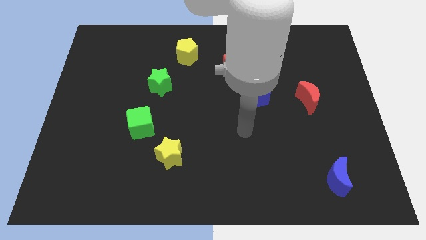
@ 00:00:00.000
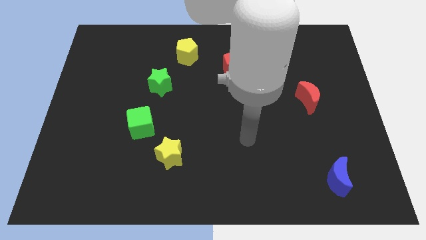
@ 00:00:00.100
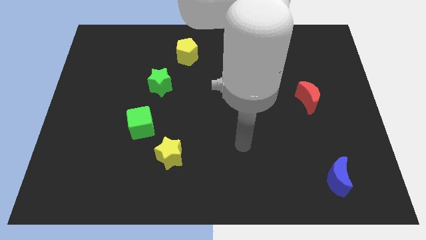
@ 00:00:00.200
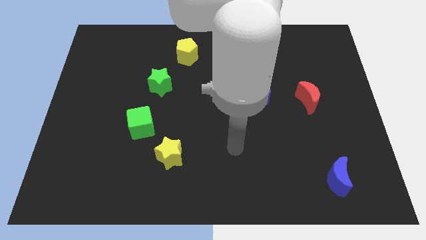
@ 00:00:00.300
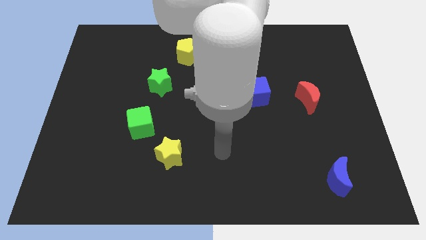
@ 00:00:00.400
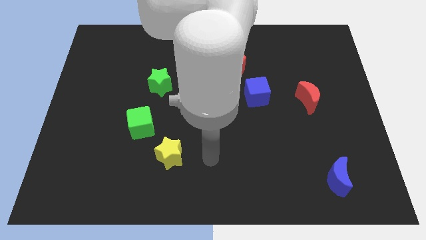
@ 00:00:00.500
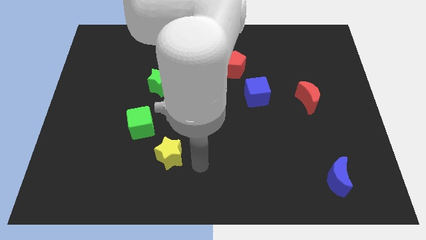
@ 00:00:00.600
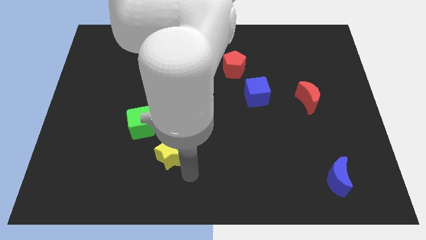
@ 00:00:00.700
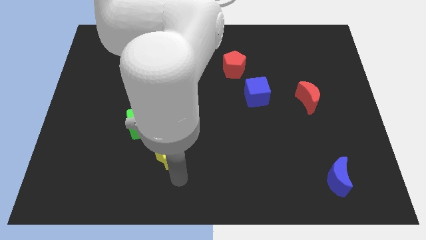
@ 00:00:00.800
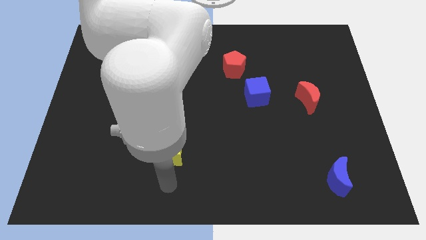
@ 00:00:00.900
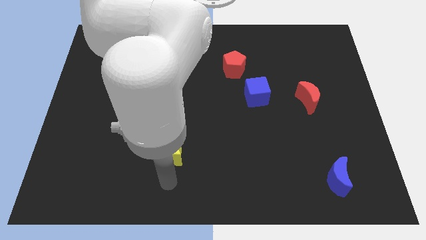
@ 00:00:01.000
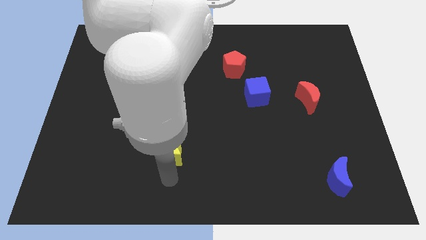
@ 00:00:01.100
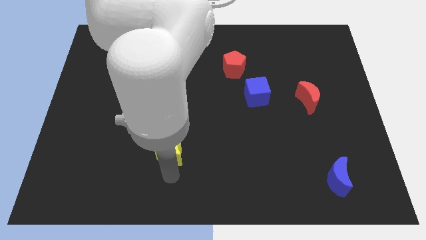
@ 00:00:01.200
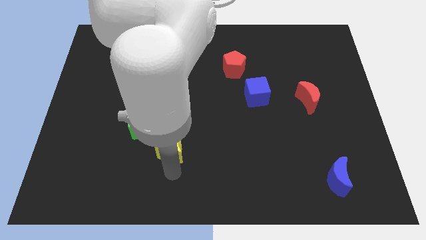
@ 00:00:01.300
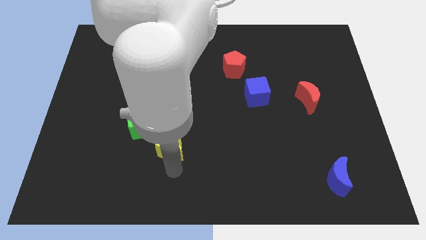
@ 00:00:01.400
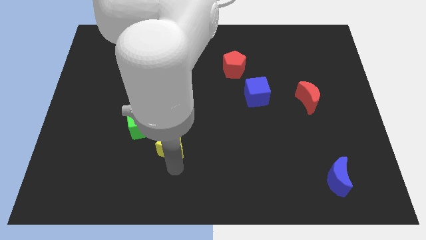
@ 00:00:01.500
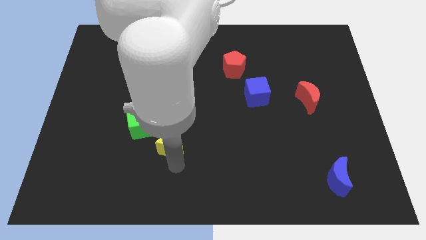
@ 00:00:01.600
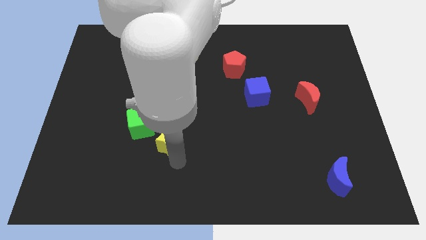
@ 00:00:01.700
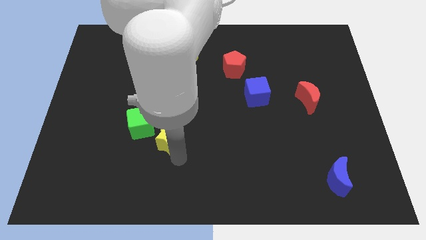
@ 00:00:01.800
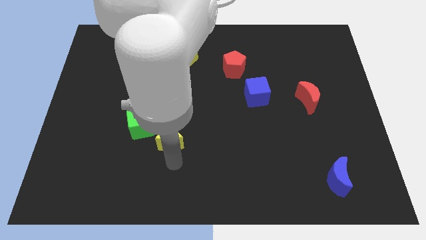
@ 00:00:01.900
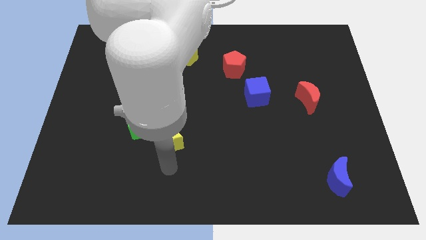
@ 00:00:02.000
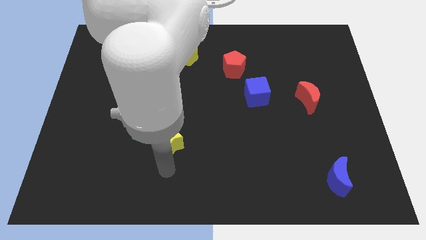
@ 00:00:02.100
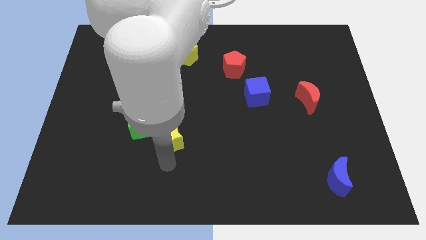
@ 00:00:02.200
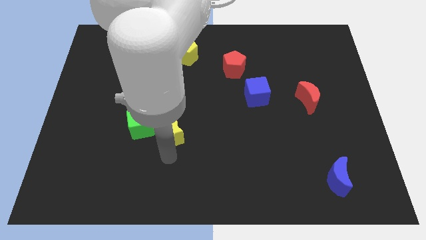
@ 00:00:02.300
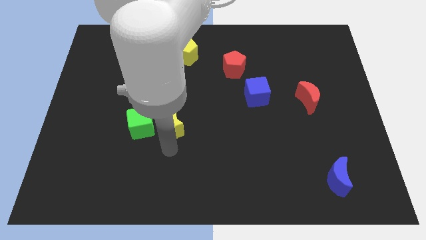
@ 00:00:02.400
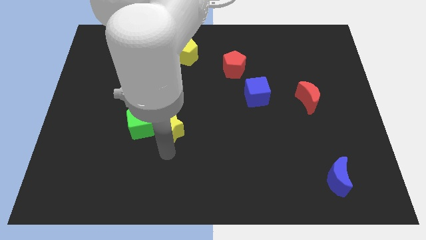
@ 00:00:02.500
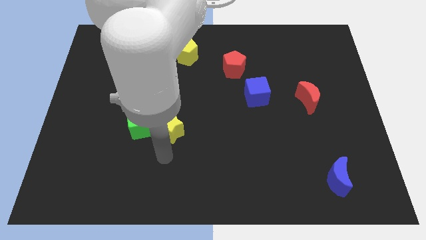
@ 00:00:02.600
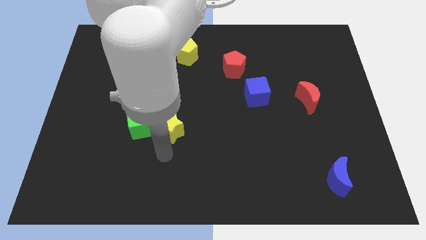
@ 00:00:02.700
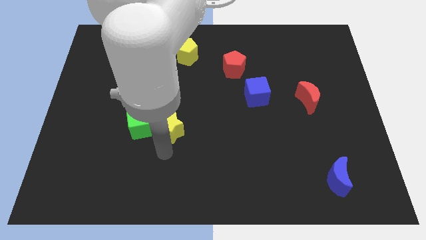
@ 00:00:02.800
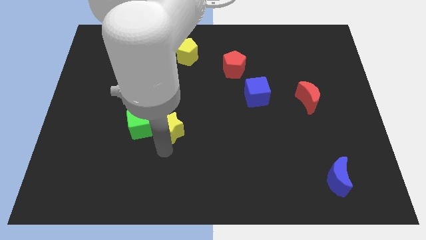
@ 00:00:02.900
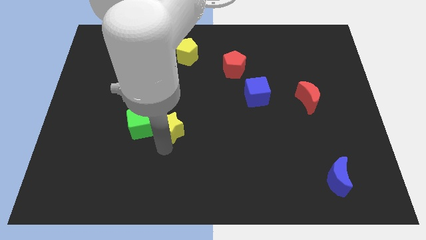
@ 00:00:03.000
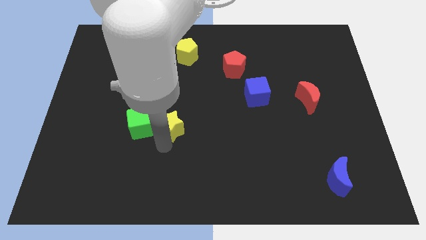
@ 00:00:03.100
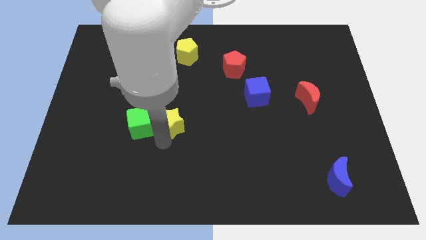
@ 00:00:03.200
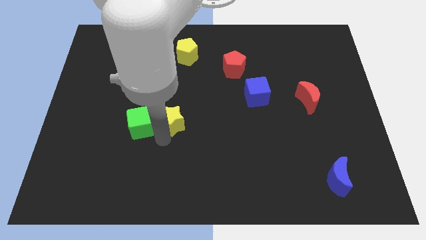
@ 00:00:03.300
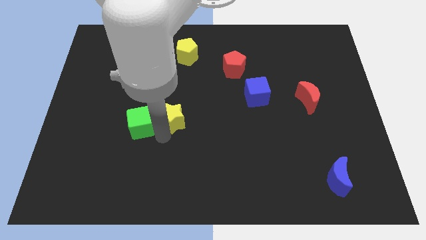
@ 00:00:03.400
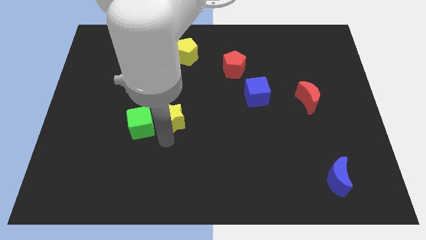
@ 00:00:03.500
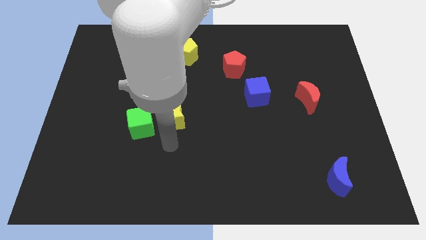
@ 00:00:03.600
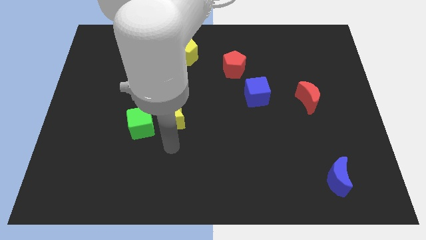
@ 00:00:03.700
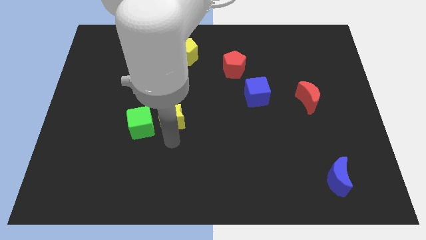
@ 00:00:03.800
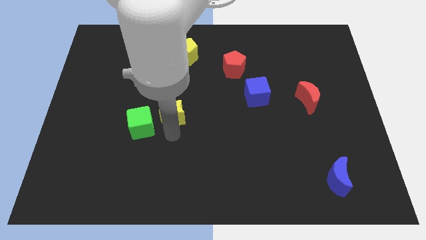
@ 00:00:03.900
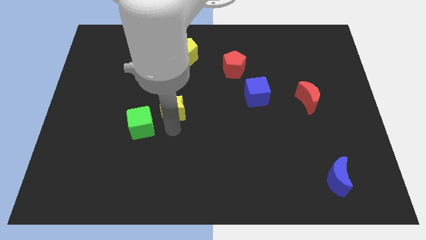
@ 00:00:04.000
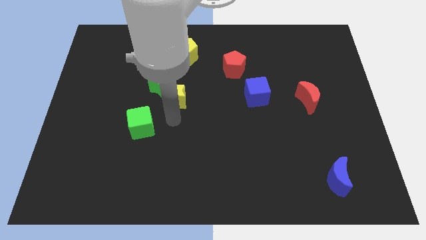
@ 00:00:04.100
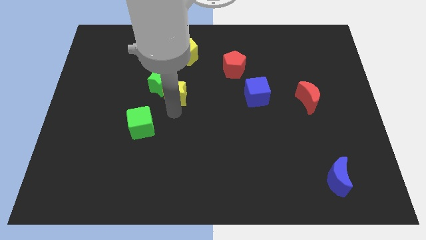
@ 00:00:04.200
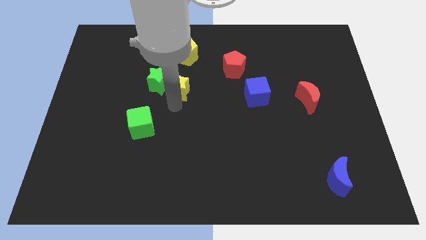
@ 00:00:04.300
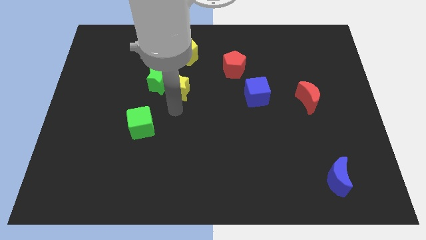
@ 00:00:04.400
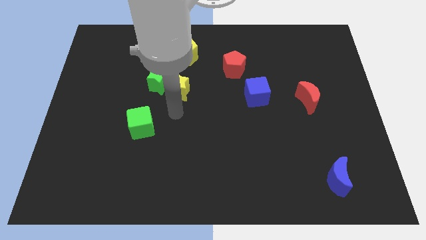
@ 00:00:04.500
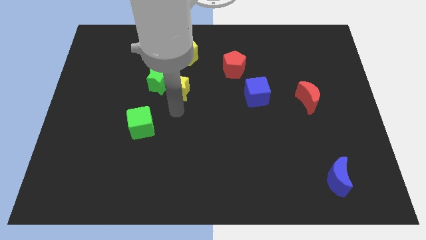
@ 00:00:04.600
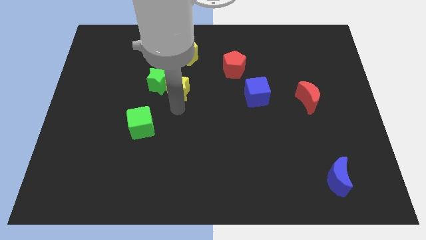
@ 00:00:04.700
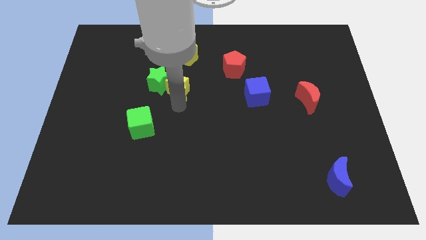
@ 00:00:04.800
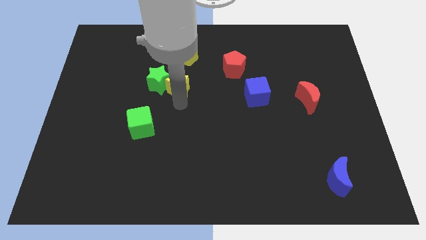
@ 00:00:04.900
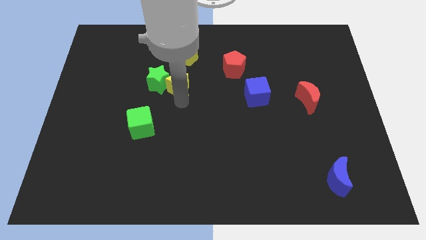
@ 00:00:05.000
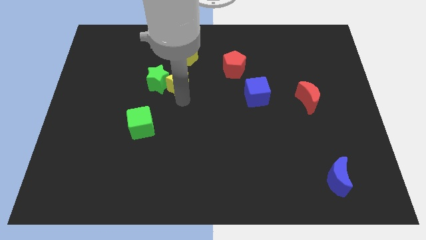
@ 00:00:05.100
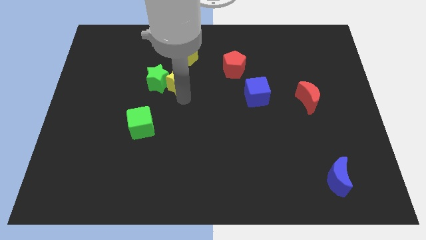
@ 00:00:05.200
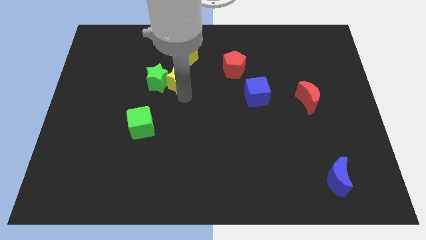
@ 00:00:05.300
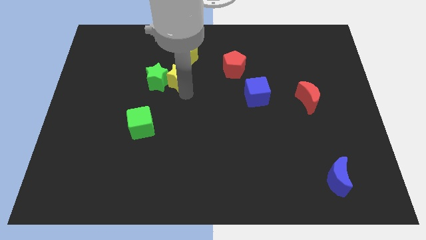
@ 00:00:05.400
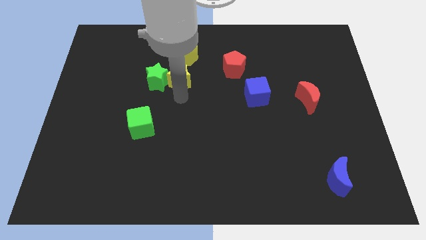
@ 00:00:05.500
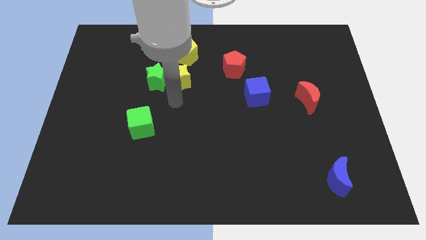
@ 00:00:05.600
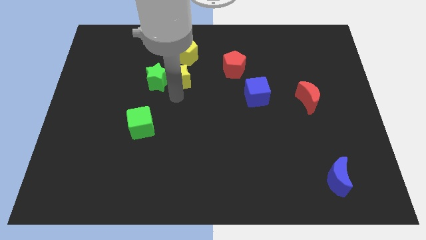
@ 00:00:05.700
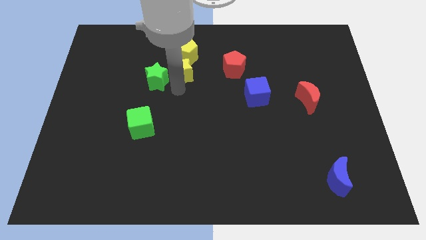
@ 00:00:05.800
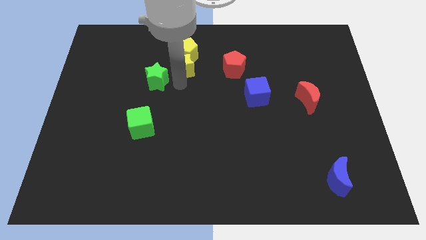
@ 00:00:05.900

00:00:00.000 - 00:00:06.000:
move the yellow star towards the yellow pentagon
